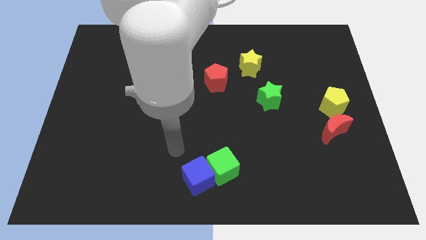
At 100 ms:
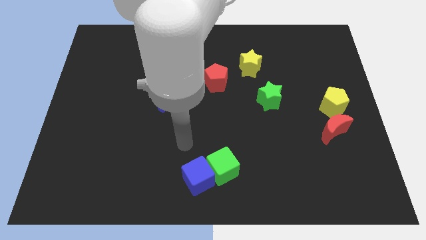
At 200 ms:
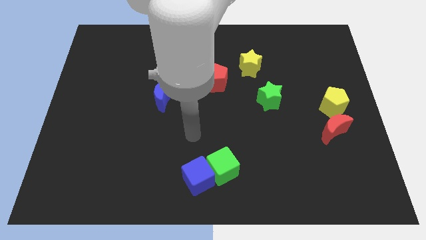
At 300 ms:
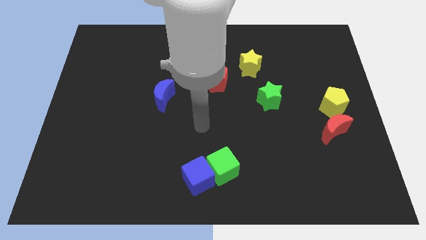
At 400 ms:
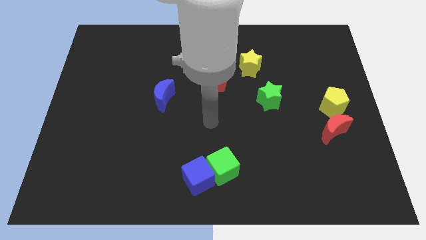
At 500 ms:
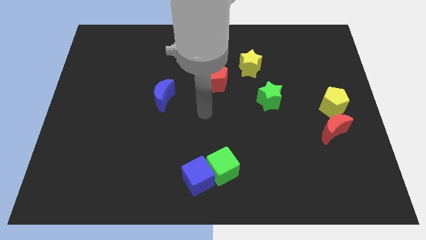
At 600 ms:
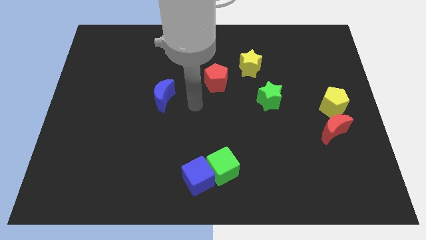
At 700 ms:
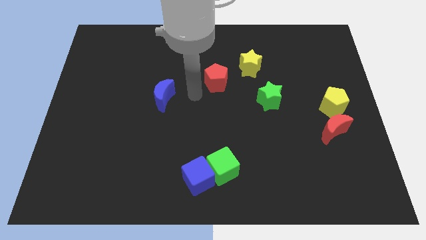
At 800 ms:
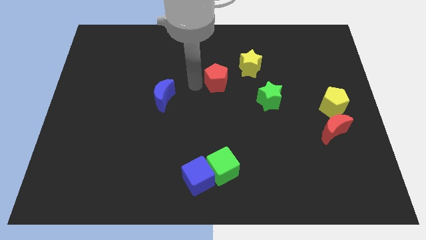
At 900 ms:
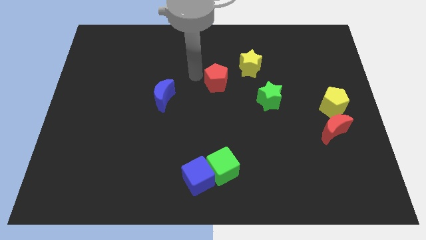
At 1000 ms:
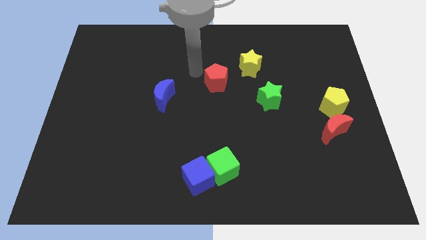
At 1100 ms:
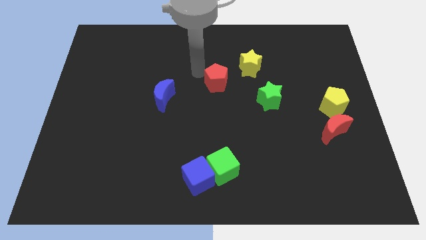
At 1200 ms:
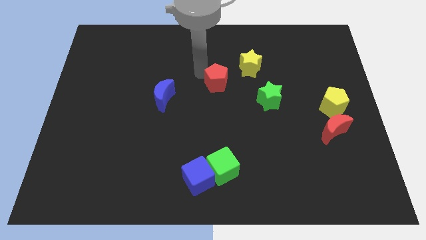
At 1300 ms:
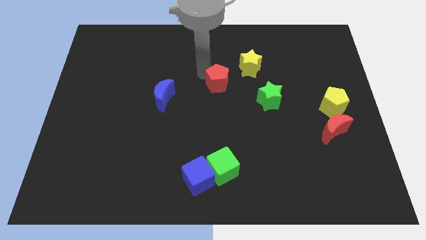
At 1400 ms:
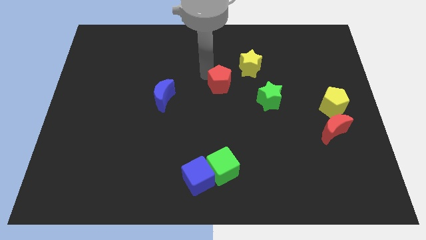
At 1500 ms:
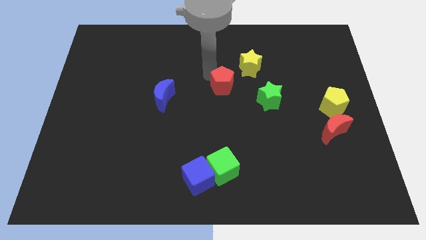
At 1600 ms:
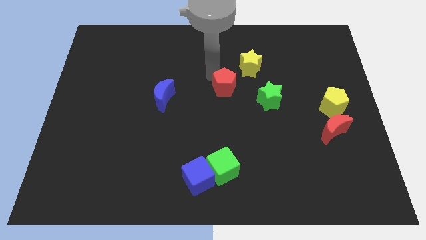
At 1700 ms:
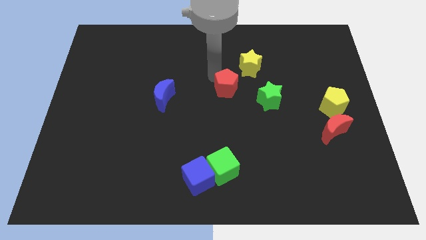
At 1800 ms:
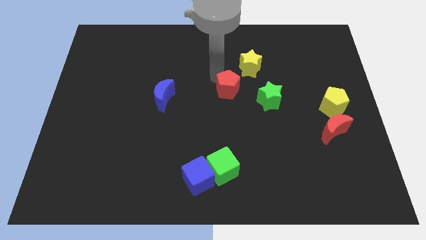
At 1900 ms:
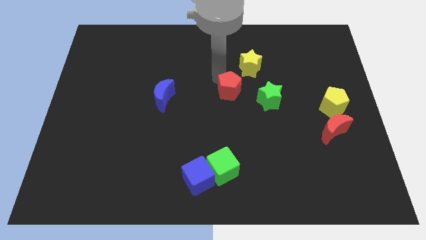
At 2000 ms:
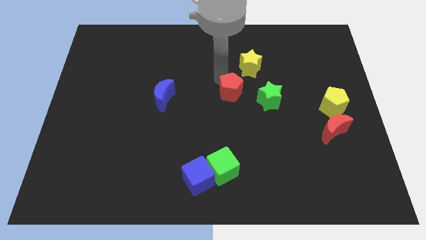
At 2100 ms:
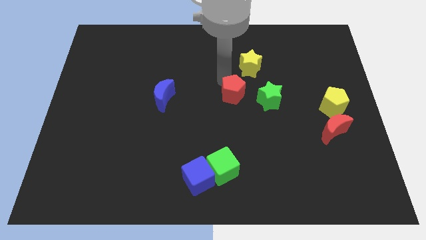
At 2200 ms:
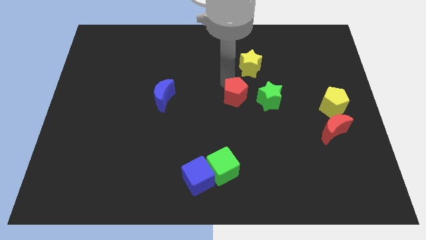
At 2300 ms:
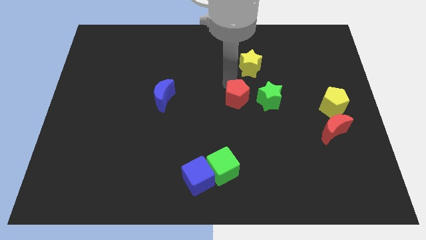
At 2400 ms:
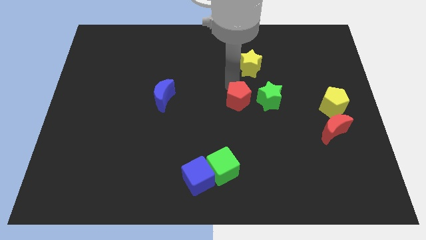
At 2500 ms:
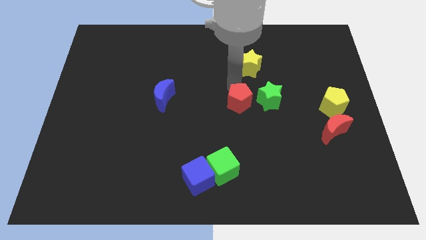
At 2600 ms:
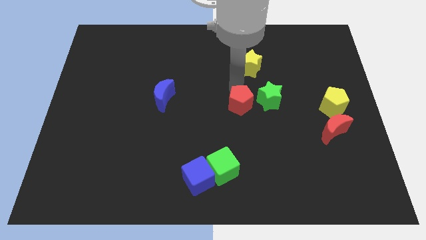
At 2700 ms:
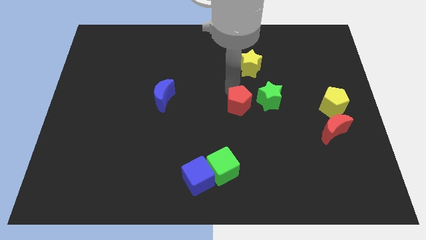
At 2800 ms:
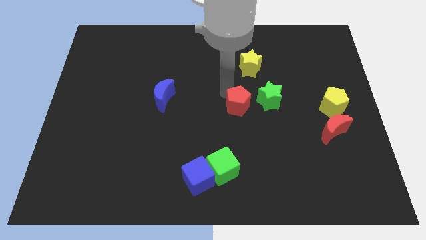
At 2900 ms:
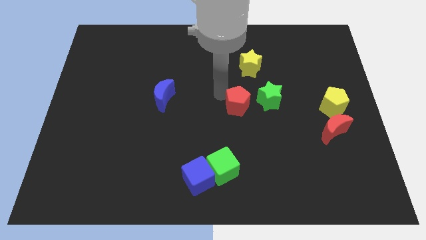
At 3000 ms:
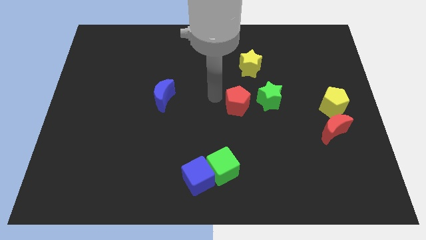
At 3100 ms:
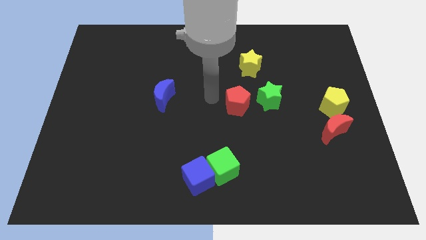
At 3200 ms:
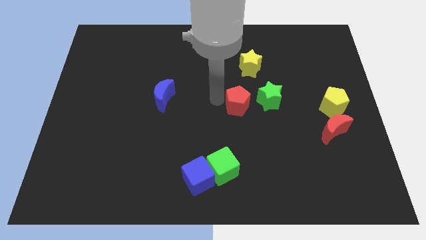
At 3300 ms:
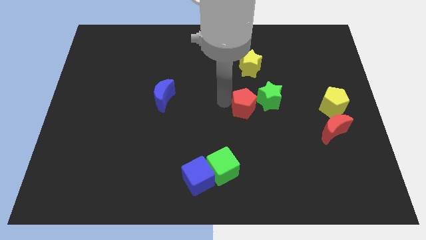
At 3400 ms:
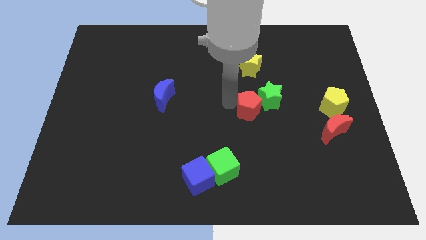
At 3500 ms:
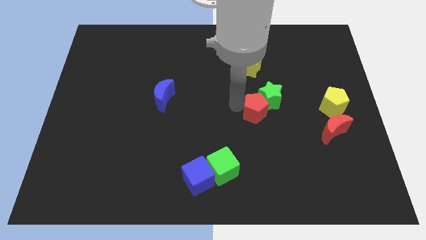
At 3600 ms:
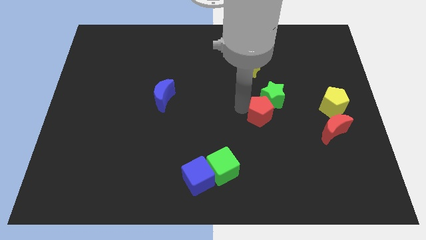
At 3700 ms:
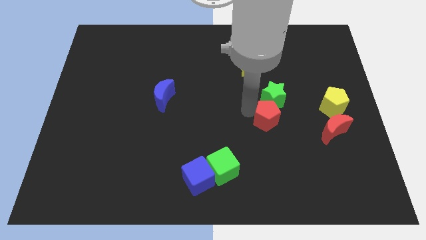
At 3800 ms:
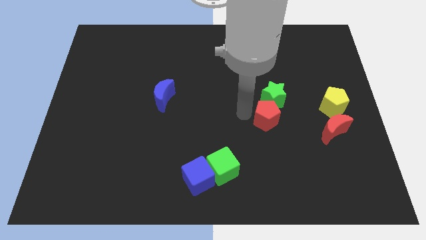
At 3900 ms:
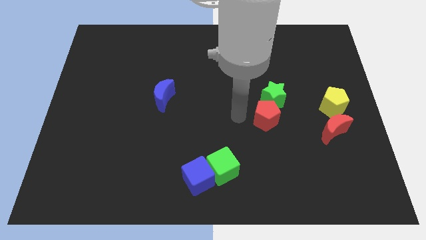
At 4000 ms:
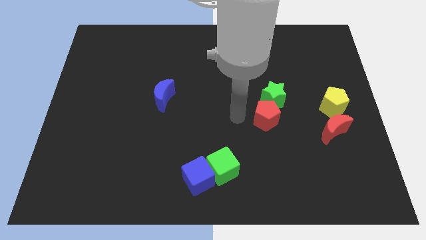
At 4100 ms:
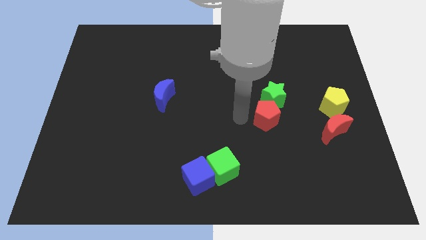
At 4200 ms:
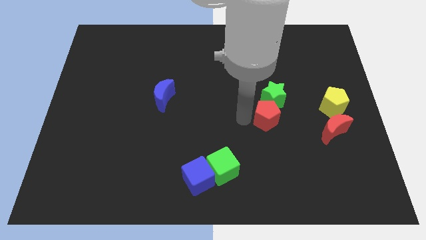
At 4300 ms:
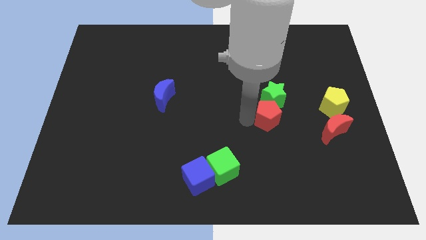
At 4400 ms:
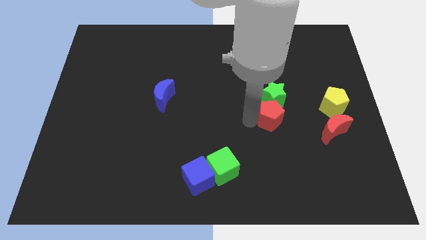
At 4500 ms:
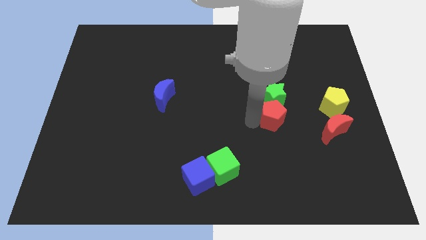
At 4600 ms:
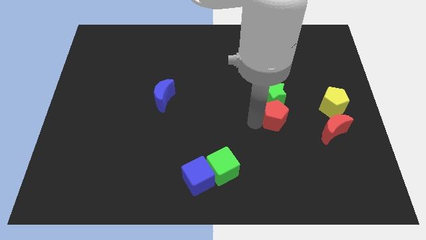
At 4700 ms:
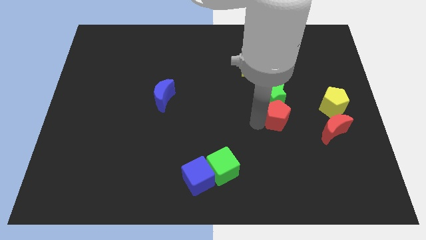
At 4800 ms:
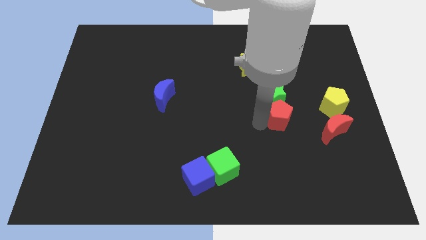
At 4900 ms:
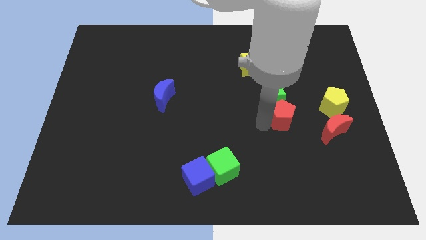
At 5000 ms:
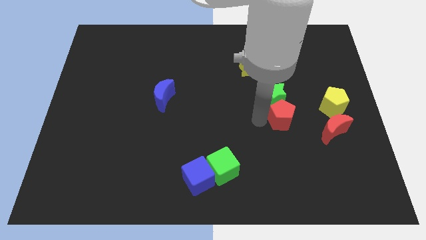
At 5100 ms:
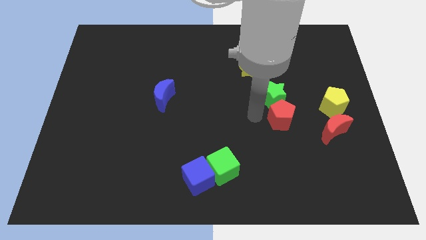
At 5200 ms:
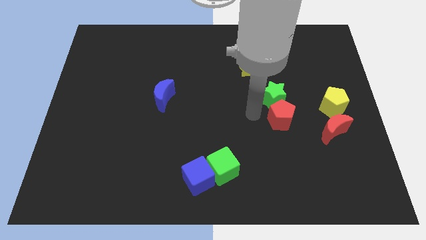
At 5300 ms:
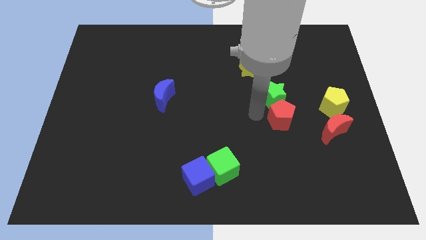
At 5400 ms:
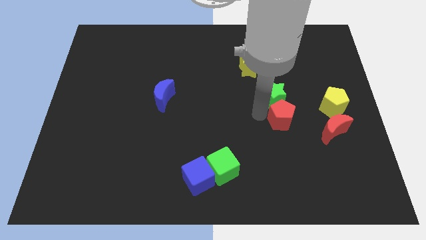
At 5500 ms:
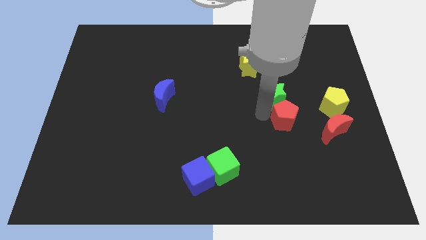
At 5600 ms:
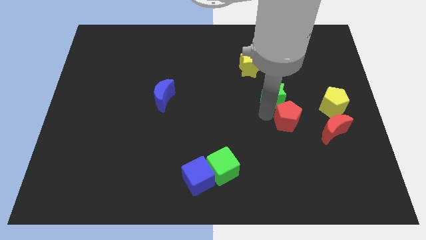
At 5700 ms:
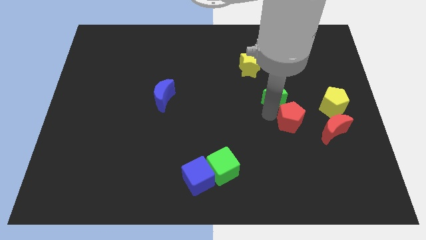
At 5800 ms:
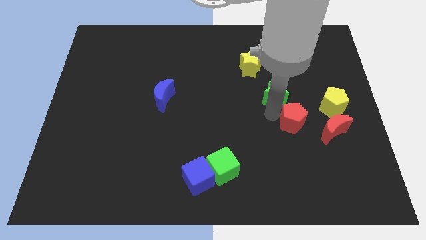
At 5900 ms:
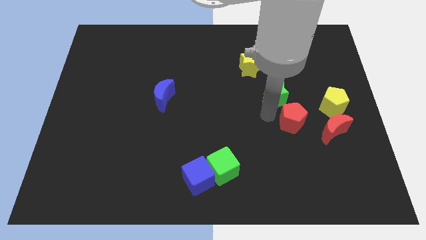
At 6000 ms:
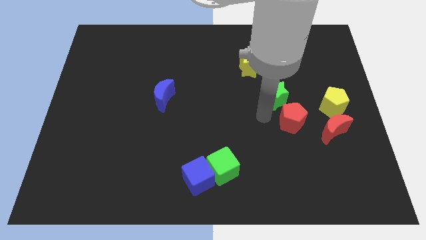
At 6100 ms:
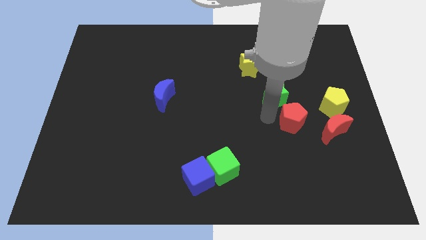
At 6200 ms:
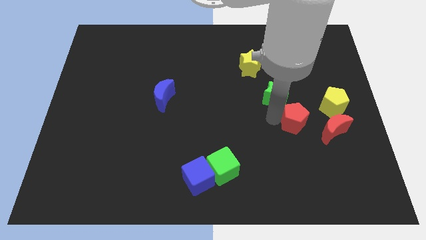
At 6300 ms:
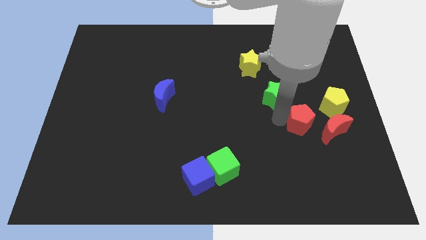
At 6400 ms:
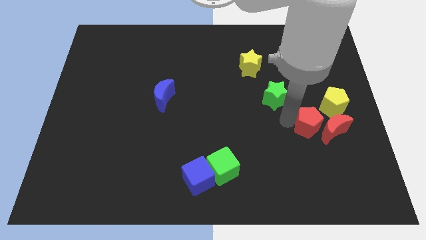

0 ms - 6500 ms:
push the red pentagon close to the red moon
